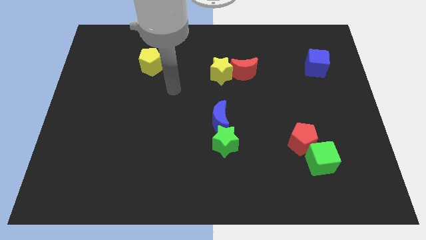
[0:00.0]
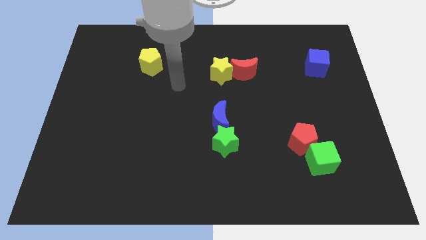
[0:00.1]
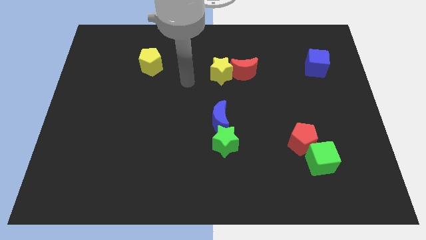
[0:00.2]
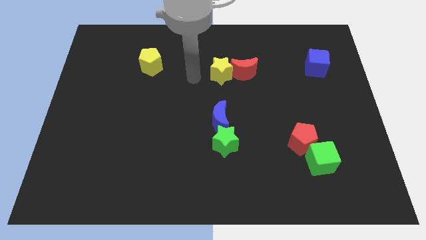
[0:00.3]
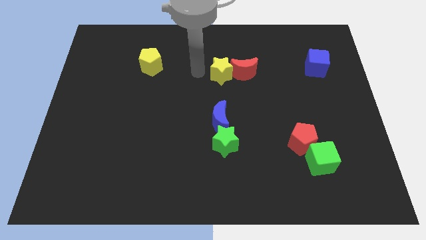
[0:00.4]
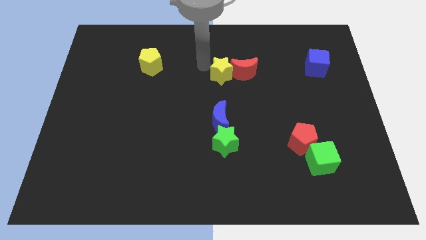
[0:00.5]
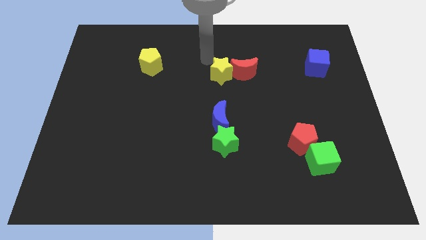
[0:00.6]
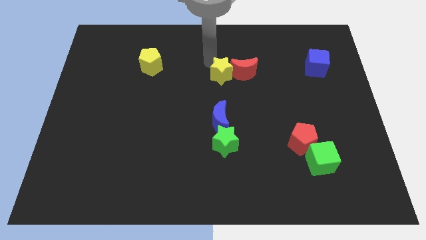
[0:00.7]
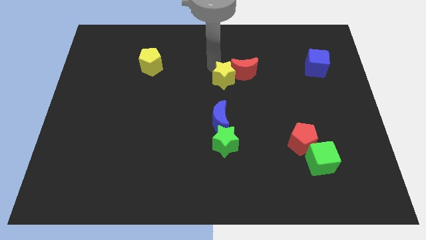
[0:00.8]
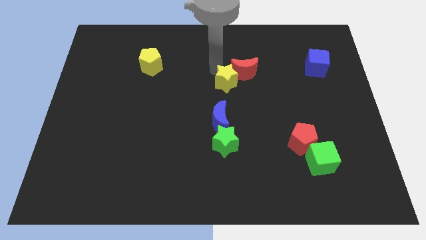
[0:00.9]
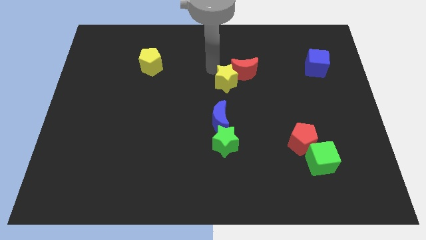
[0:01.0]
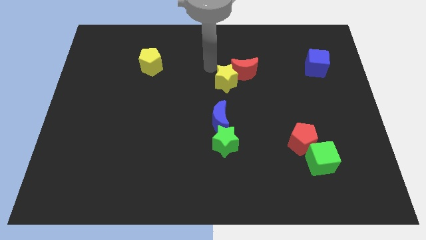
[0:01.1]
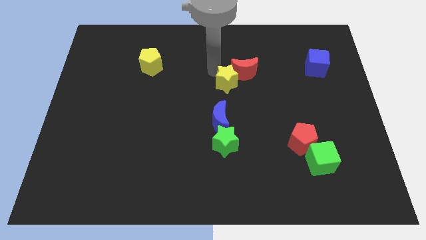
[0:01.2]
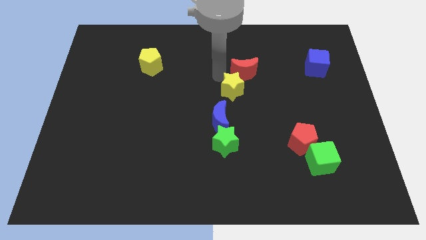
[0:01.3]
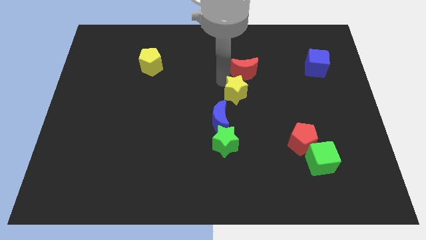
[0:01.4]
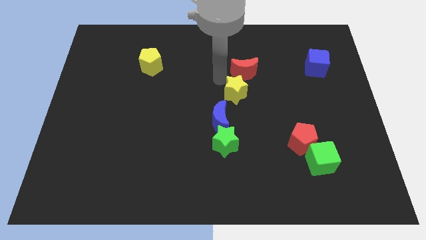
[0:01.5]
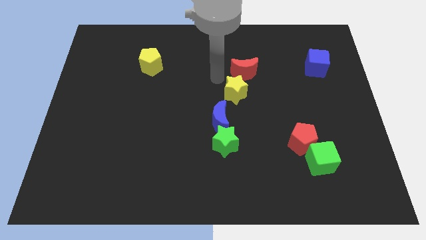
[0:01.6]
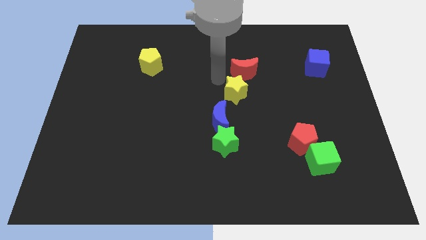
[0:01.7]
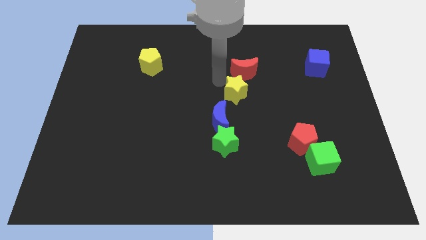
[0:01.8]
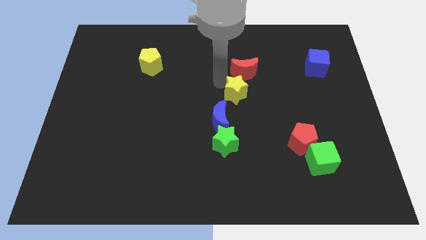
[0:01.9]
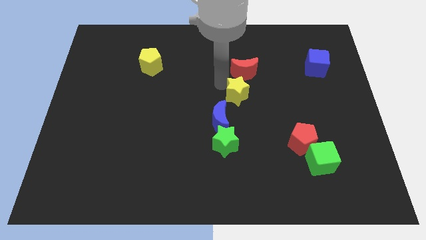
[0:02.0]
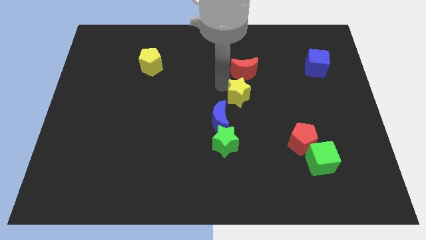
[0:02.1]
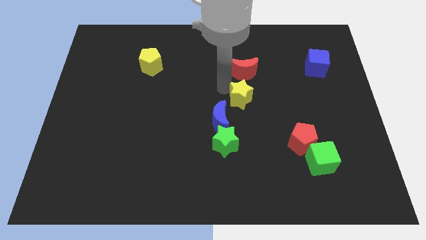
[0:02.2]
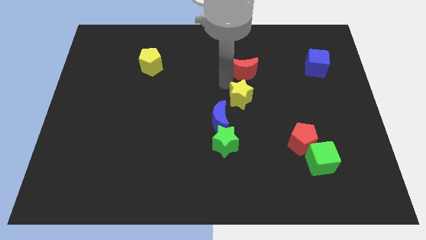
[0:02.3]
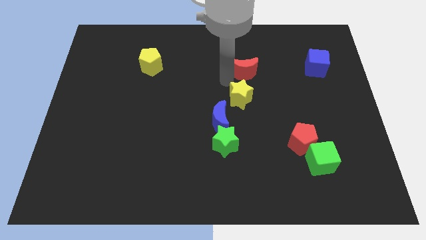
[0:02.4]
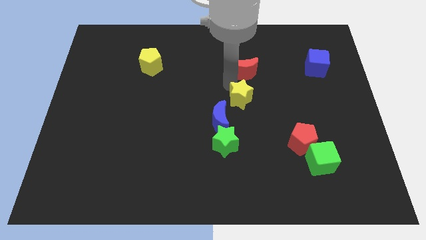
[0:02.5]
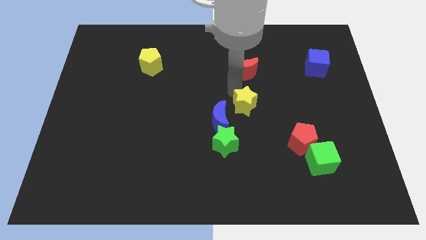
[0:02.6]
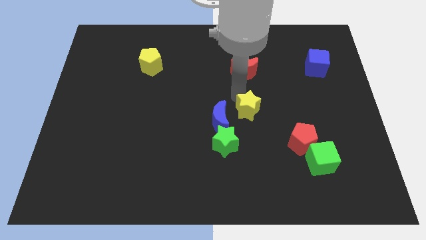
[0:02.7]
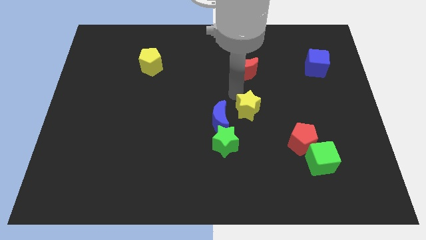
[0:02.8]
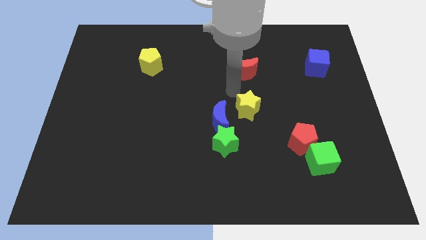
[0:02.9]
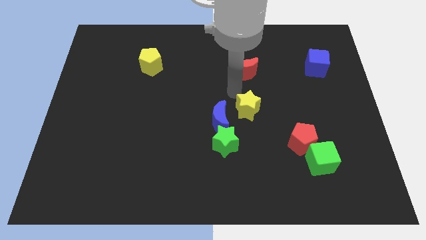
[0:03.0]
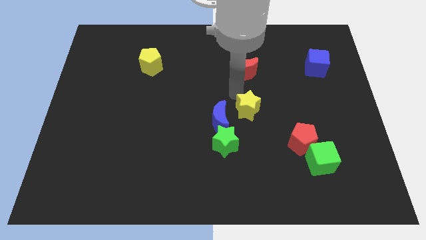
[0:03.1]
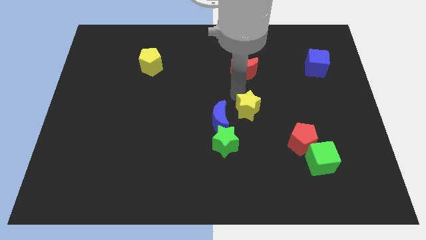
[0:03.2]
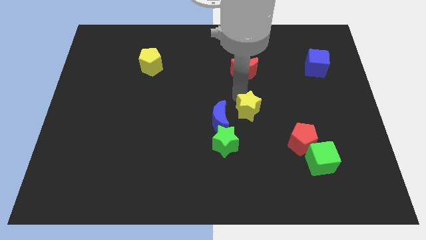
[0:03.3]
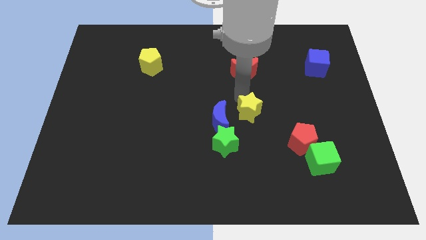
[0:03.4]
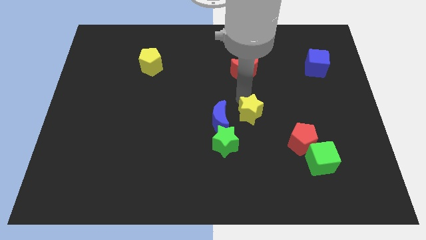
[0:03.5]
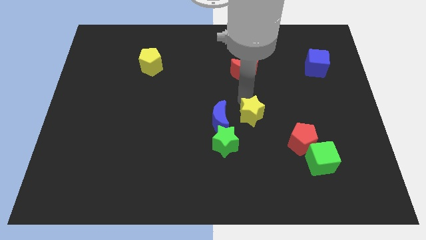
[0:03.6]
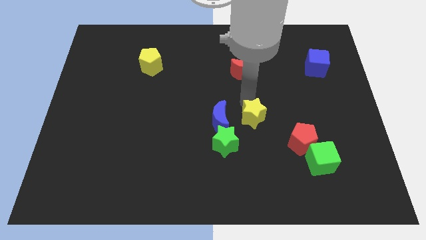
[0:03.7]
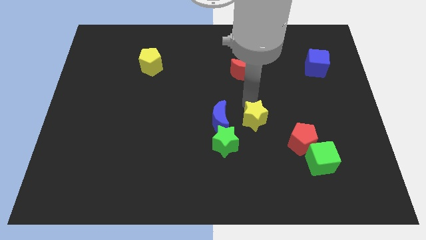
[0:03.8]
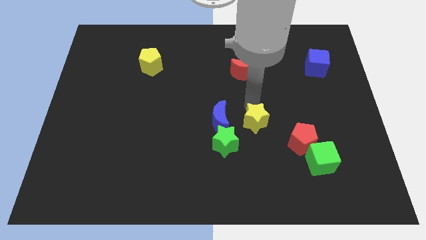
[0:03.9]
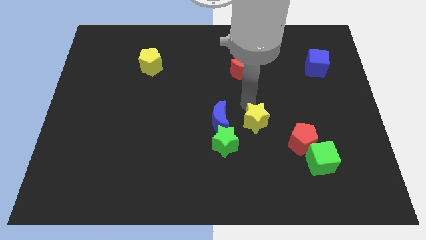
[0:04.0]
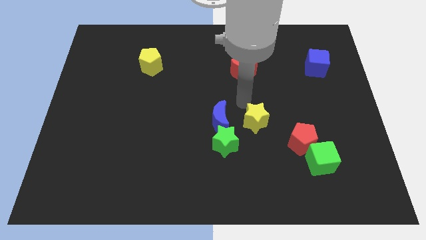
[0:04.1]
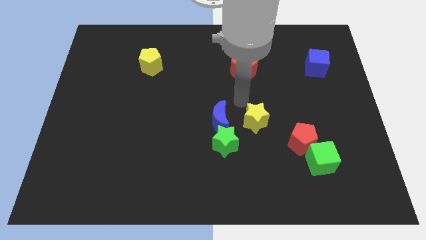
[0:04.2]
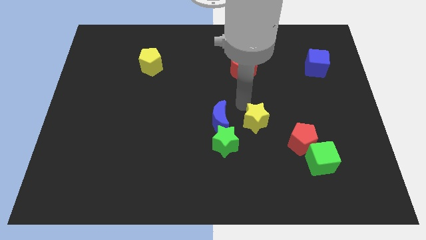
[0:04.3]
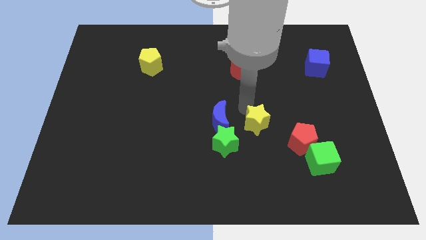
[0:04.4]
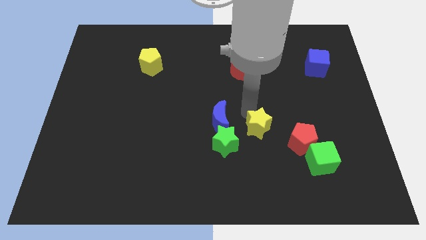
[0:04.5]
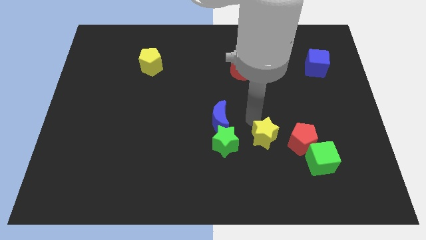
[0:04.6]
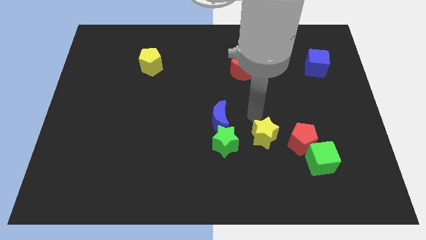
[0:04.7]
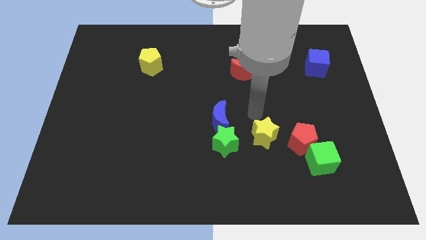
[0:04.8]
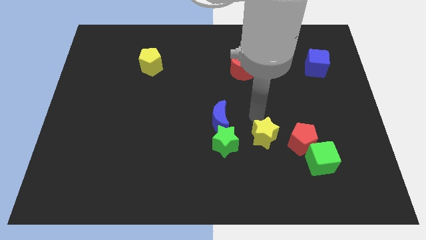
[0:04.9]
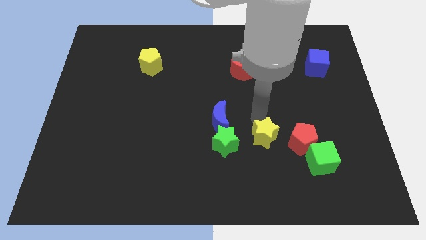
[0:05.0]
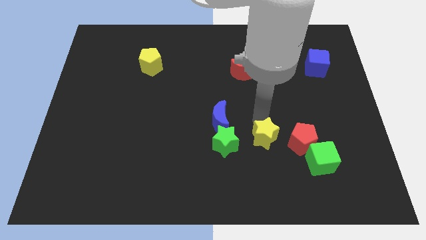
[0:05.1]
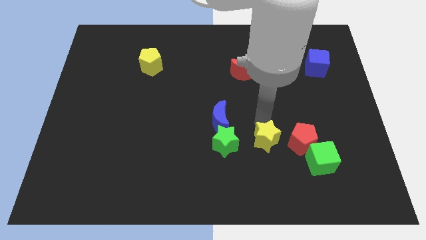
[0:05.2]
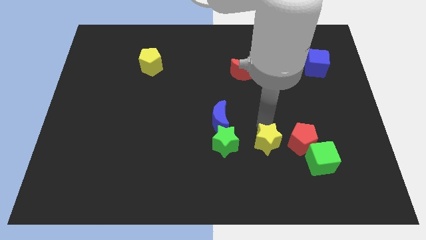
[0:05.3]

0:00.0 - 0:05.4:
put the yellow star left of the green cube

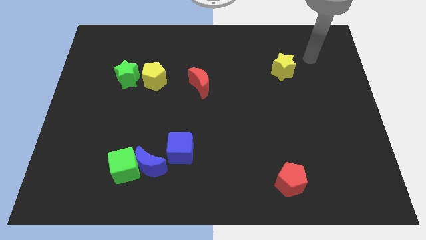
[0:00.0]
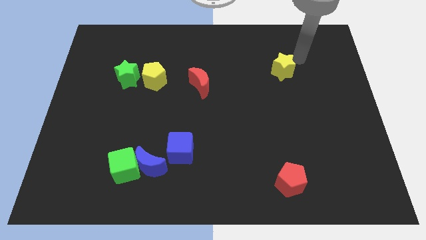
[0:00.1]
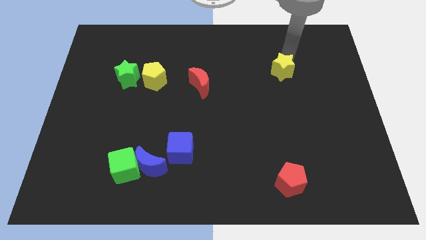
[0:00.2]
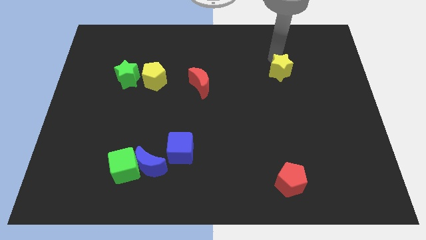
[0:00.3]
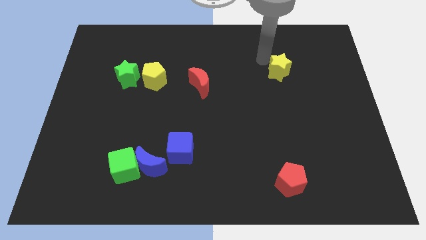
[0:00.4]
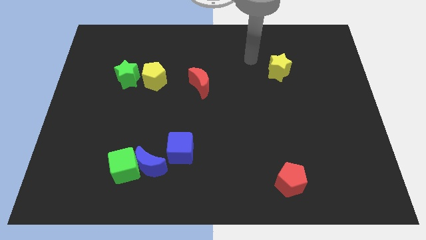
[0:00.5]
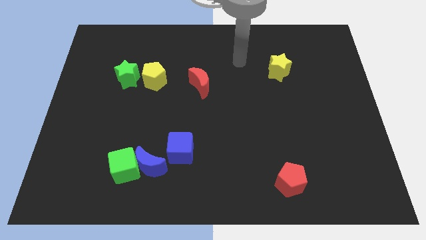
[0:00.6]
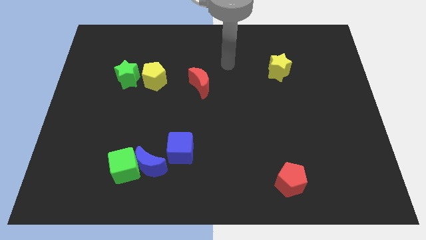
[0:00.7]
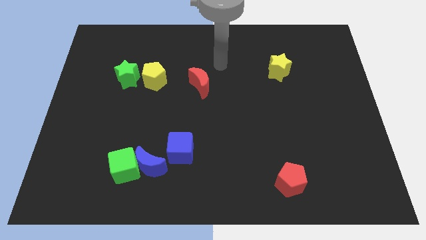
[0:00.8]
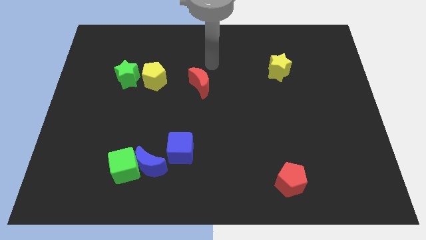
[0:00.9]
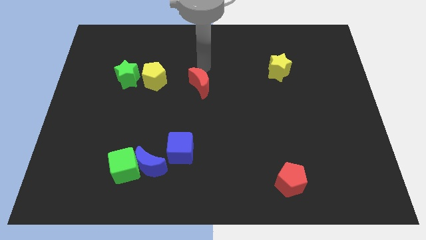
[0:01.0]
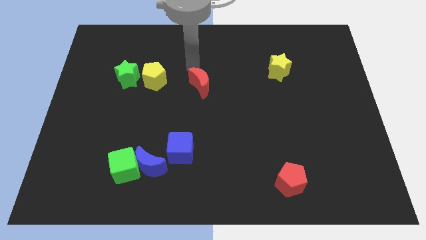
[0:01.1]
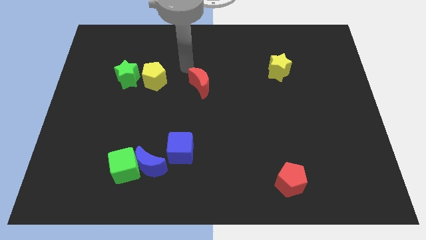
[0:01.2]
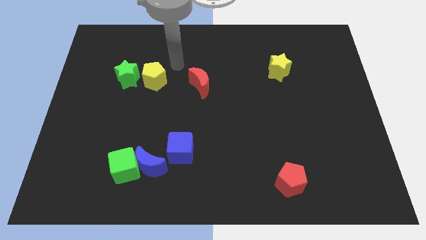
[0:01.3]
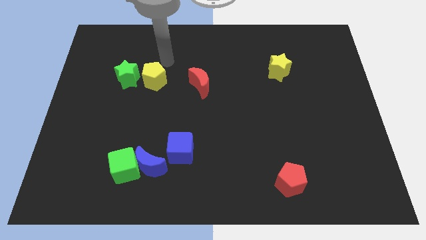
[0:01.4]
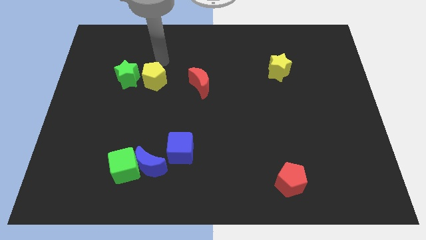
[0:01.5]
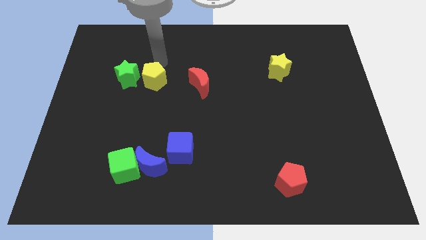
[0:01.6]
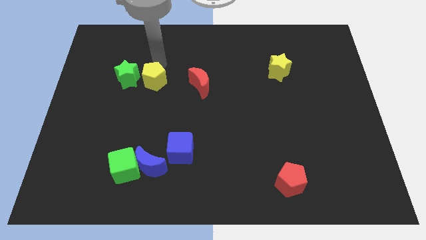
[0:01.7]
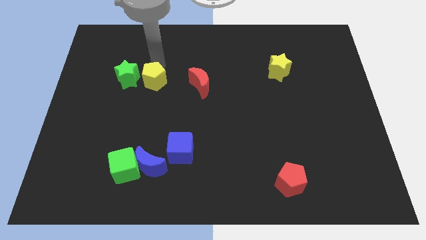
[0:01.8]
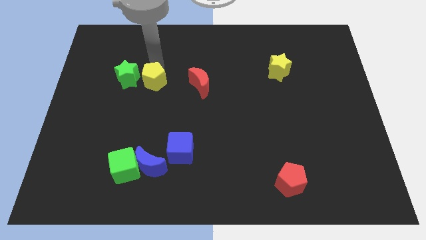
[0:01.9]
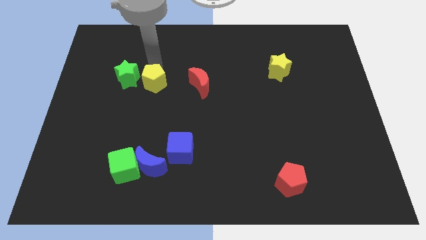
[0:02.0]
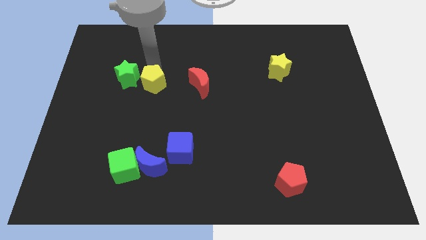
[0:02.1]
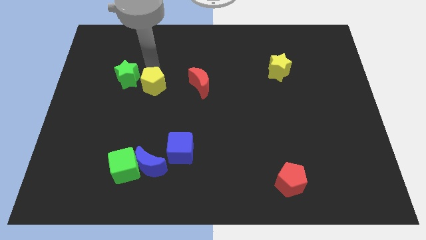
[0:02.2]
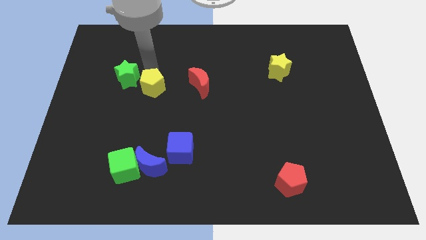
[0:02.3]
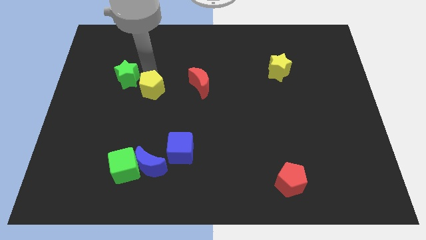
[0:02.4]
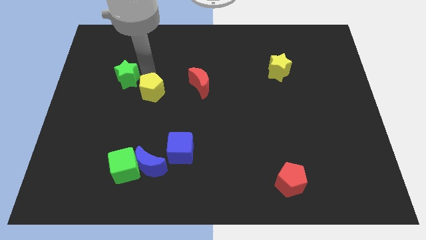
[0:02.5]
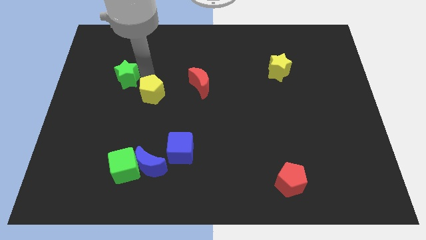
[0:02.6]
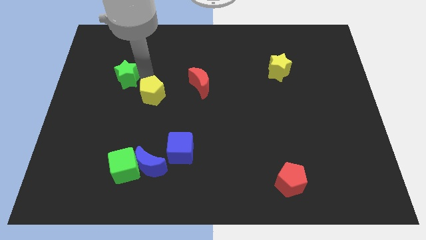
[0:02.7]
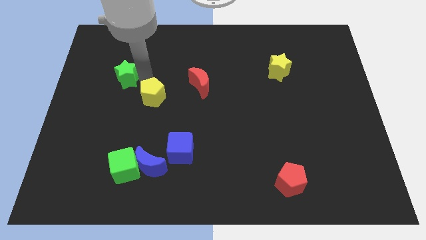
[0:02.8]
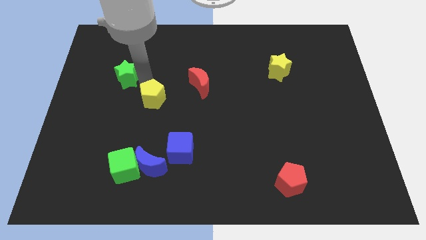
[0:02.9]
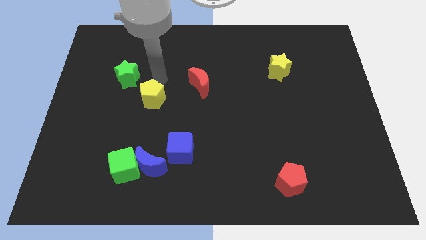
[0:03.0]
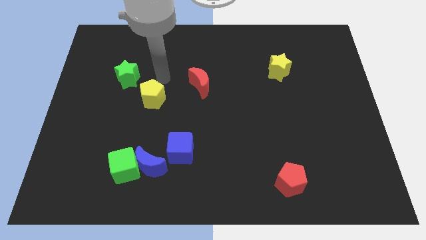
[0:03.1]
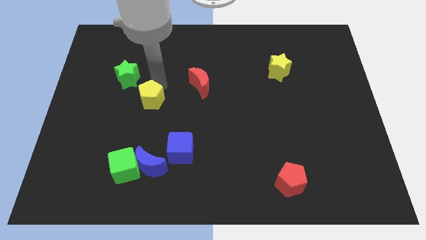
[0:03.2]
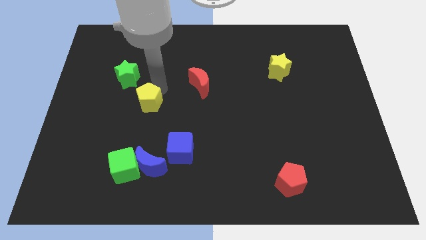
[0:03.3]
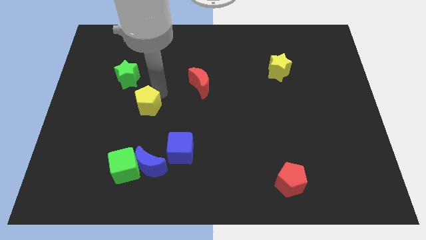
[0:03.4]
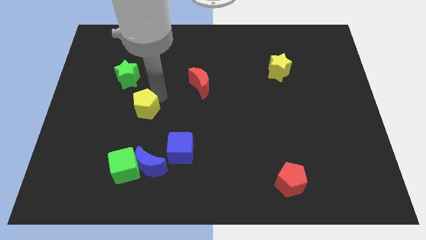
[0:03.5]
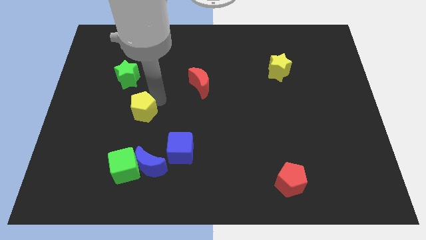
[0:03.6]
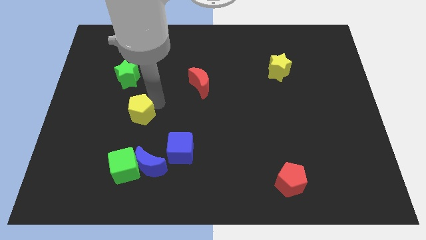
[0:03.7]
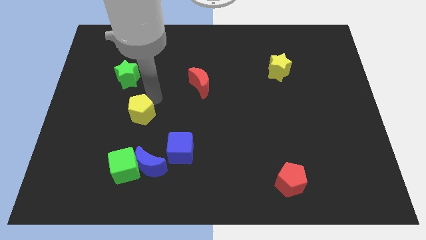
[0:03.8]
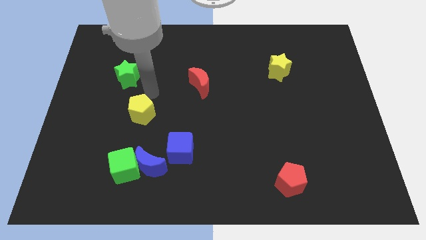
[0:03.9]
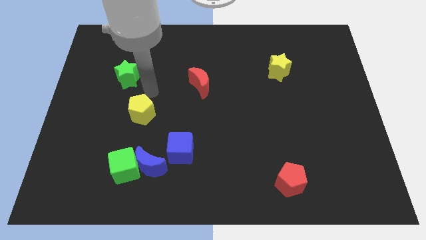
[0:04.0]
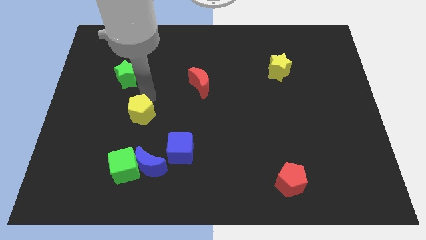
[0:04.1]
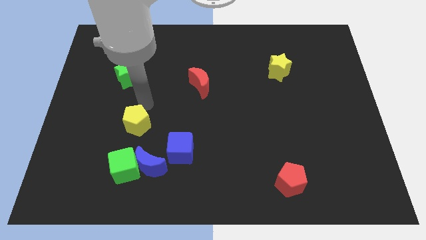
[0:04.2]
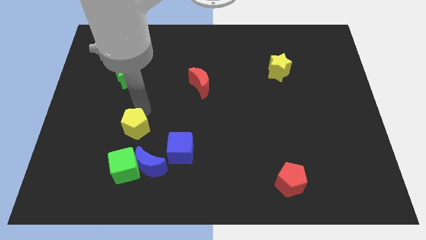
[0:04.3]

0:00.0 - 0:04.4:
put the yellow pentagon diagonally up and to the left of the blue moon
